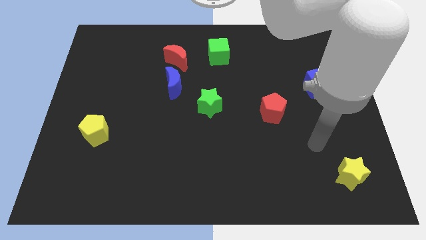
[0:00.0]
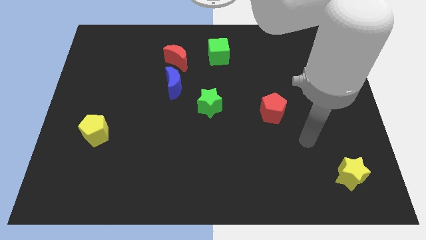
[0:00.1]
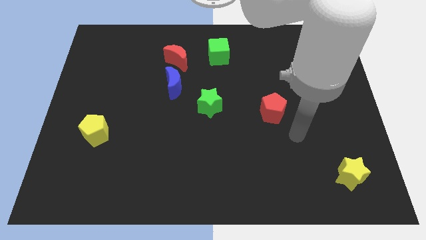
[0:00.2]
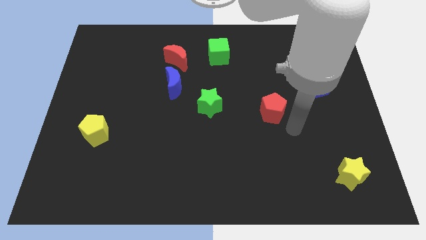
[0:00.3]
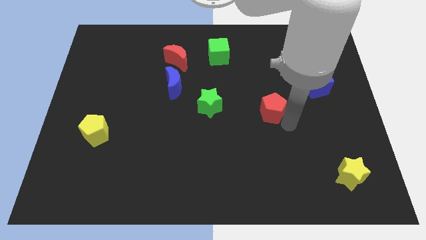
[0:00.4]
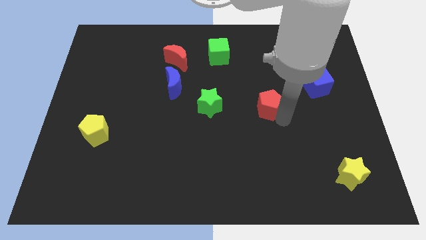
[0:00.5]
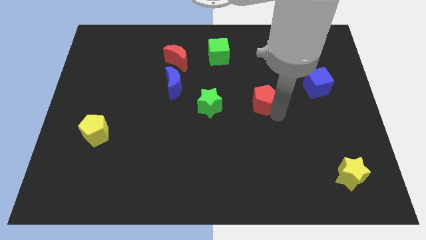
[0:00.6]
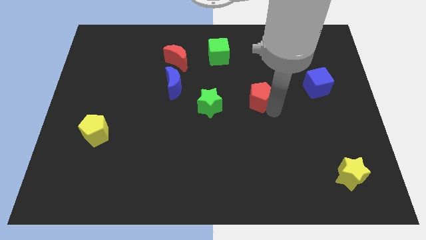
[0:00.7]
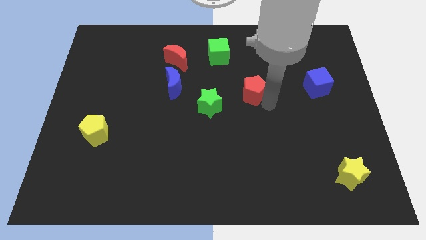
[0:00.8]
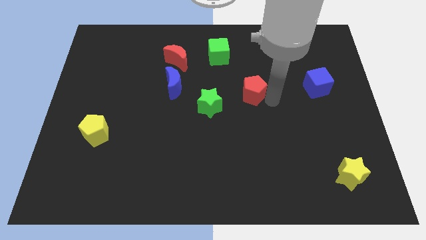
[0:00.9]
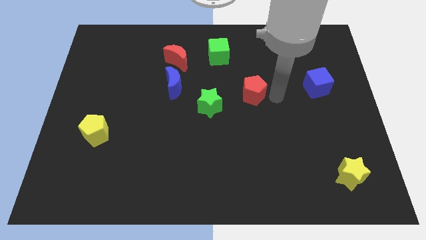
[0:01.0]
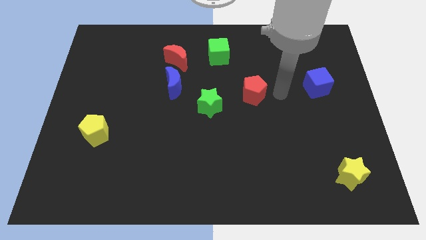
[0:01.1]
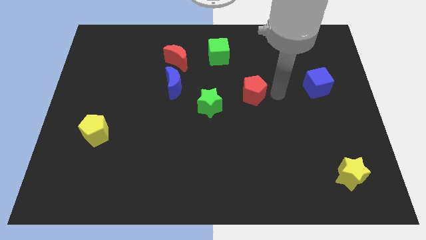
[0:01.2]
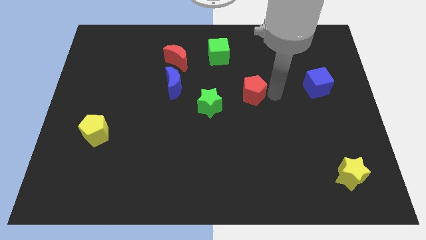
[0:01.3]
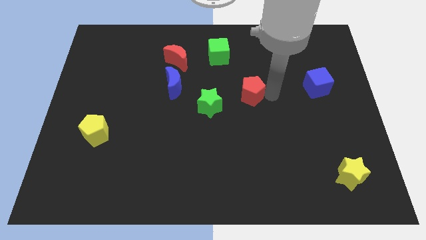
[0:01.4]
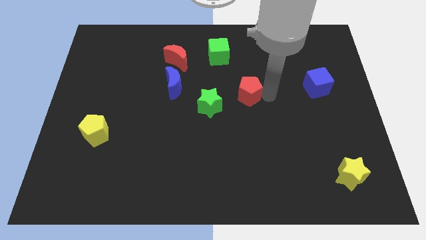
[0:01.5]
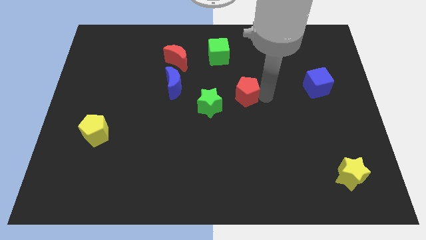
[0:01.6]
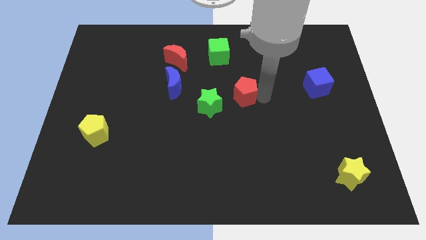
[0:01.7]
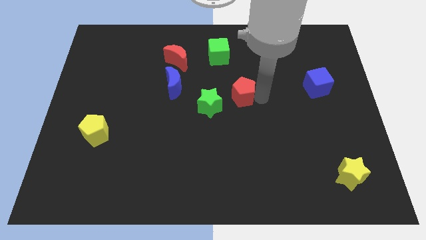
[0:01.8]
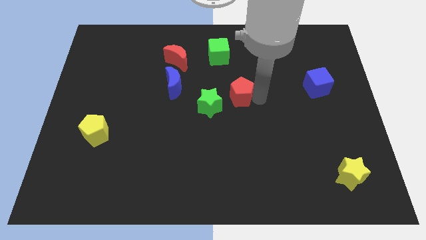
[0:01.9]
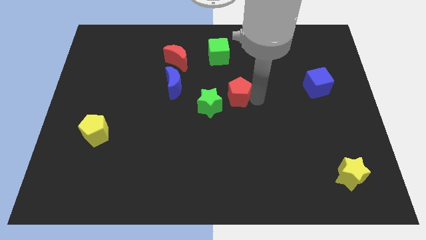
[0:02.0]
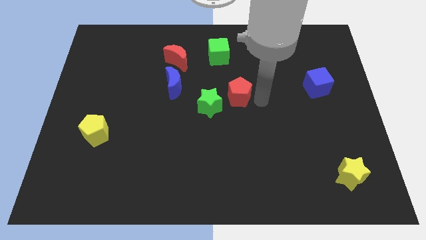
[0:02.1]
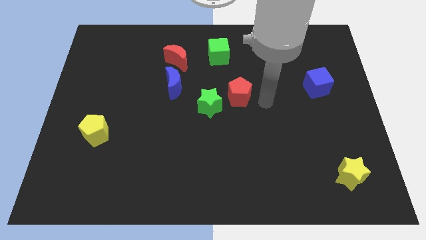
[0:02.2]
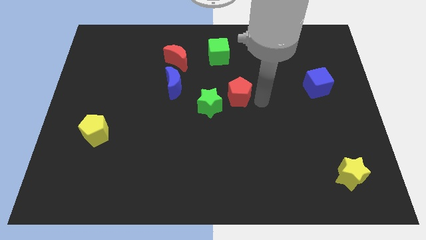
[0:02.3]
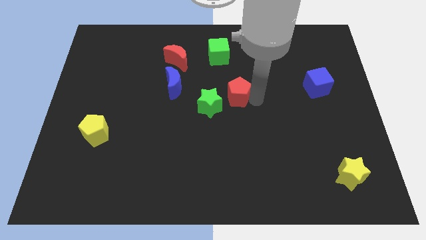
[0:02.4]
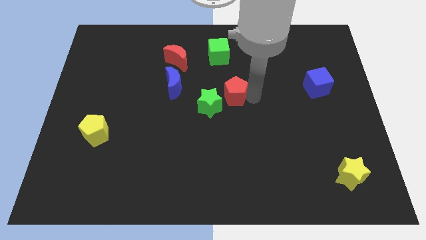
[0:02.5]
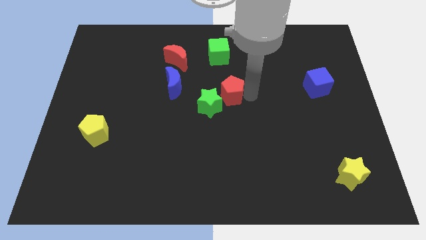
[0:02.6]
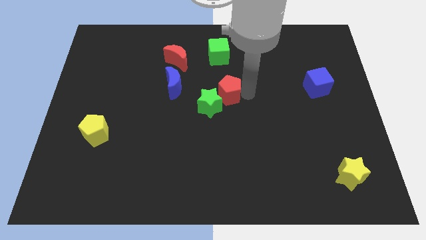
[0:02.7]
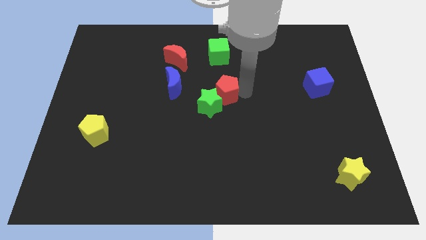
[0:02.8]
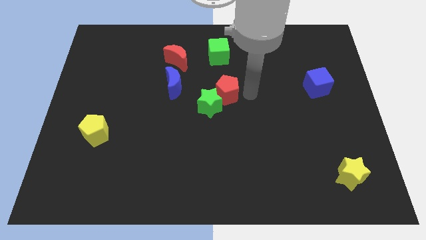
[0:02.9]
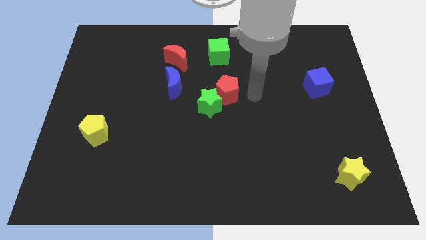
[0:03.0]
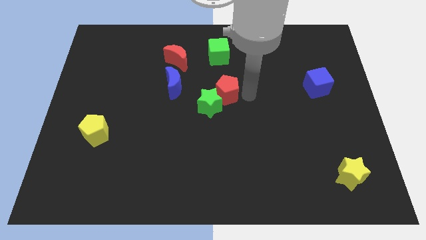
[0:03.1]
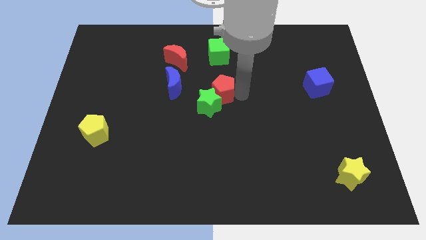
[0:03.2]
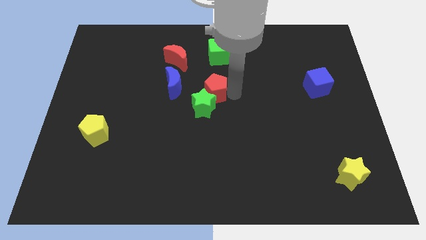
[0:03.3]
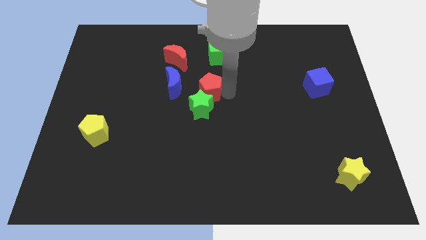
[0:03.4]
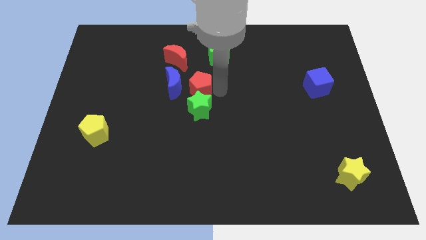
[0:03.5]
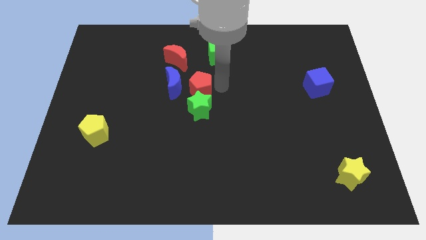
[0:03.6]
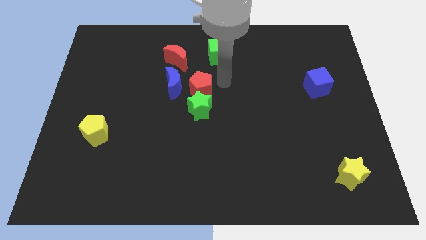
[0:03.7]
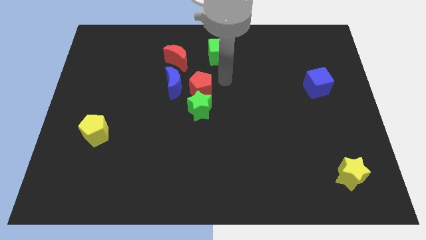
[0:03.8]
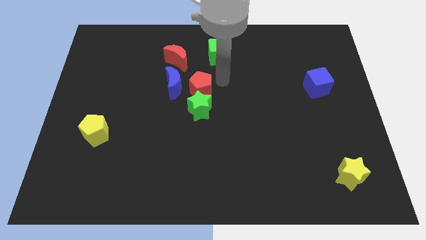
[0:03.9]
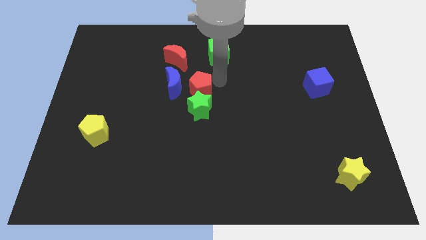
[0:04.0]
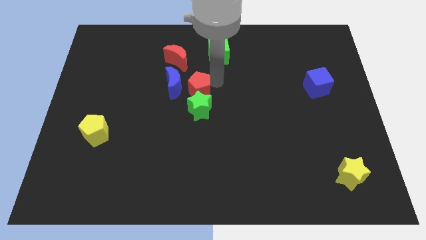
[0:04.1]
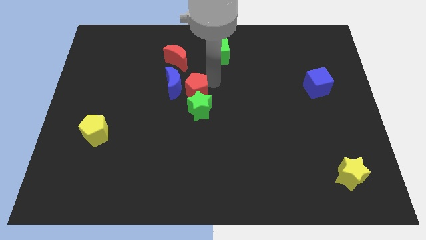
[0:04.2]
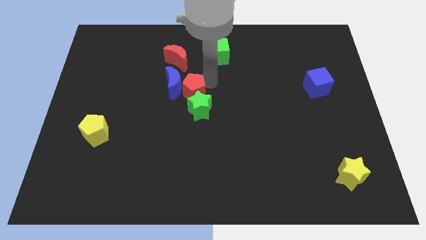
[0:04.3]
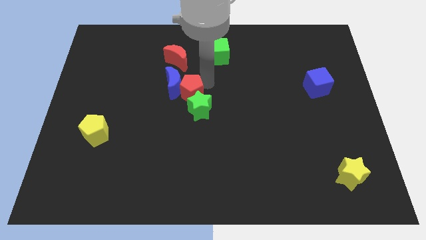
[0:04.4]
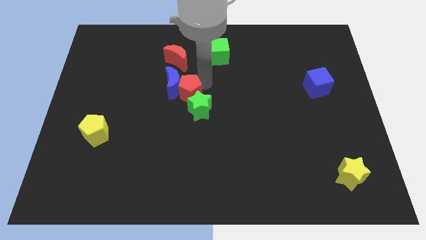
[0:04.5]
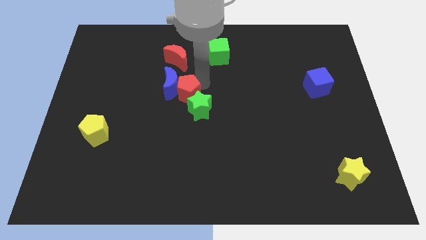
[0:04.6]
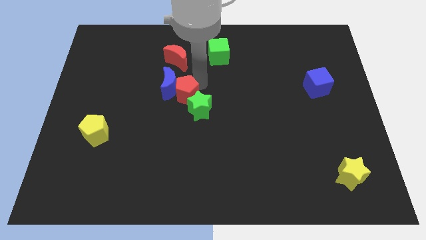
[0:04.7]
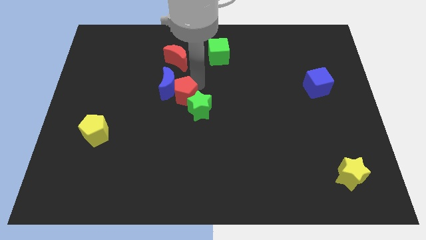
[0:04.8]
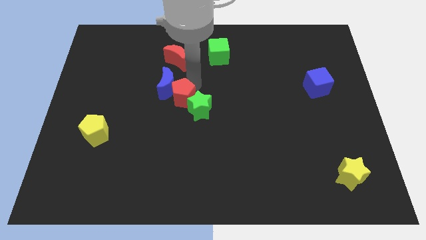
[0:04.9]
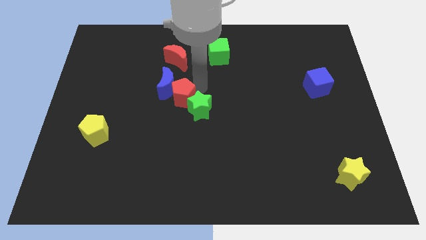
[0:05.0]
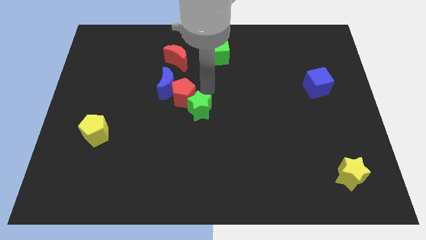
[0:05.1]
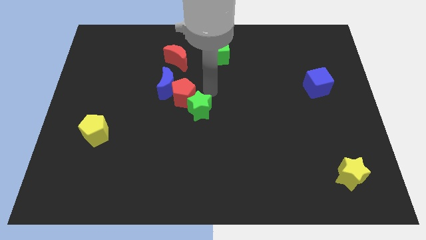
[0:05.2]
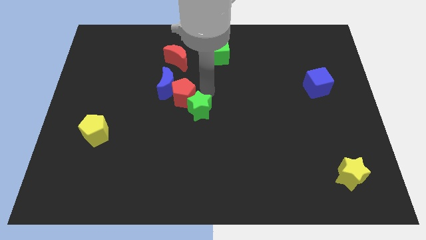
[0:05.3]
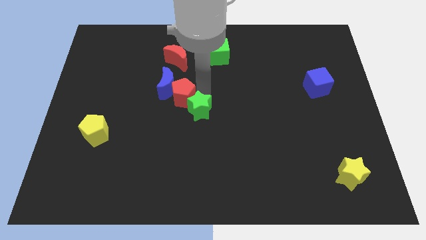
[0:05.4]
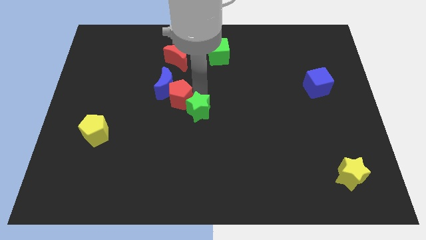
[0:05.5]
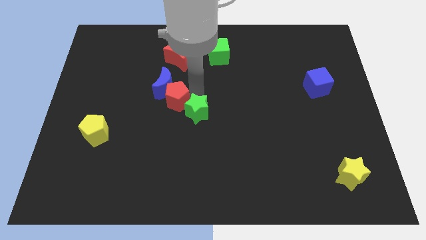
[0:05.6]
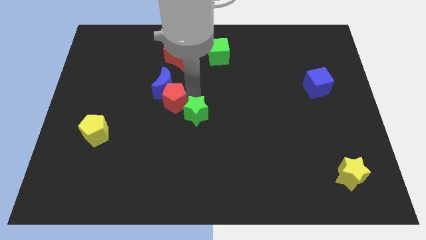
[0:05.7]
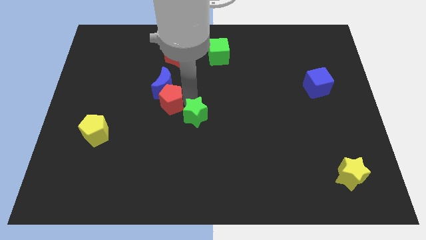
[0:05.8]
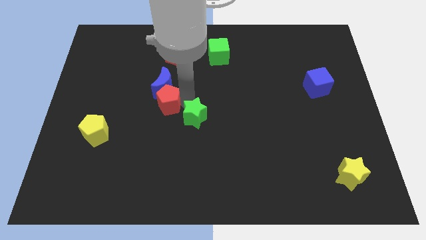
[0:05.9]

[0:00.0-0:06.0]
slide the red pentagon diagonally down and to the left of the blue moon

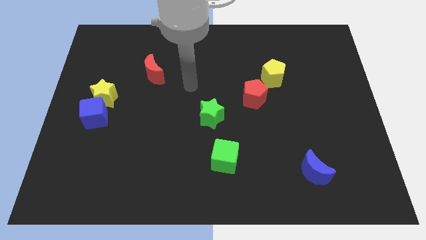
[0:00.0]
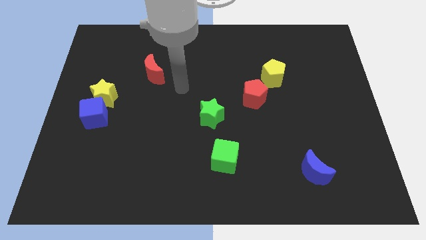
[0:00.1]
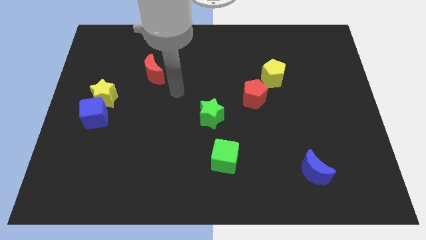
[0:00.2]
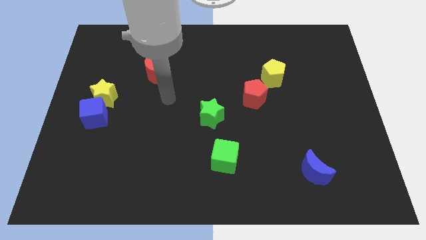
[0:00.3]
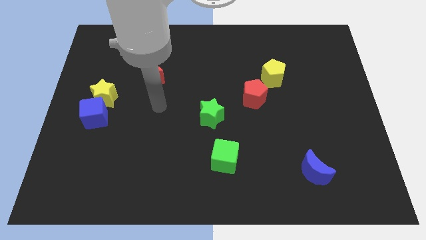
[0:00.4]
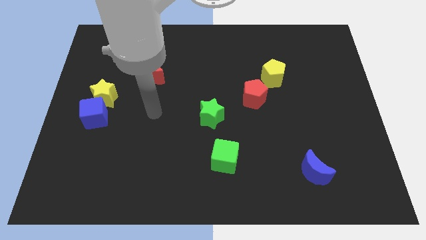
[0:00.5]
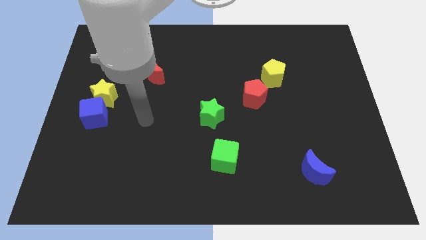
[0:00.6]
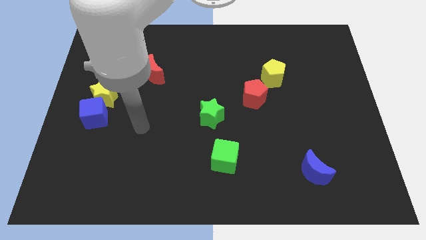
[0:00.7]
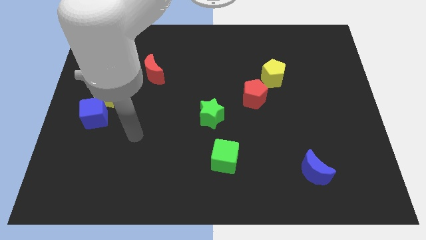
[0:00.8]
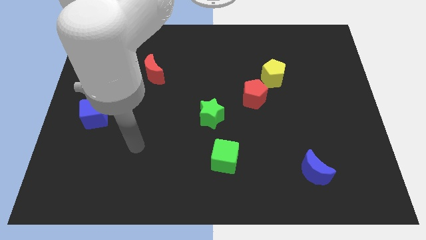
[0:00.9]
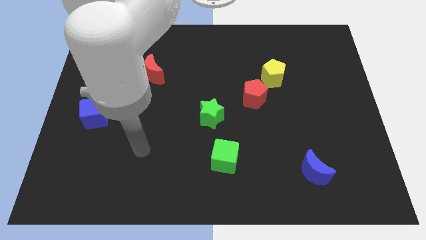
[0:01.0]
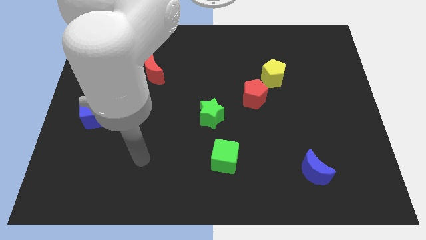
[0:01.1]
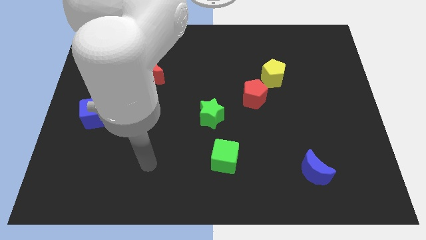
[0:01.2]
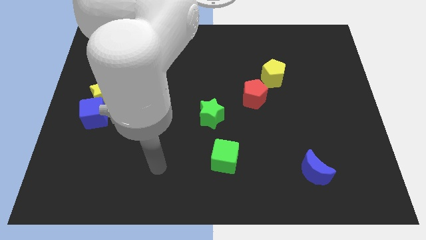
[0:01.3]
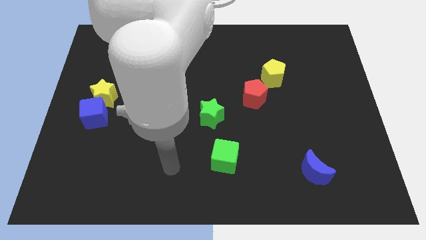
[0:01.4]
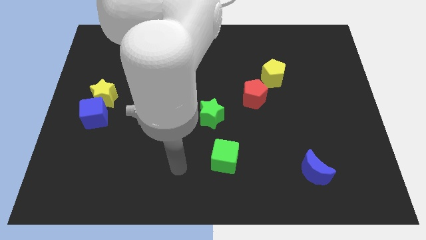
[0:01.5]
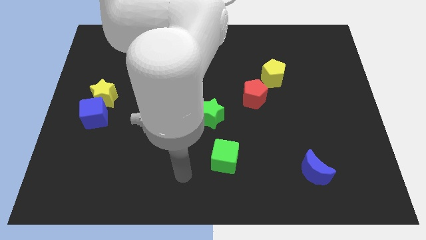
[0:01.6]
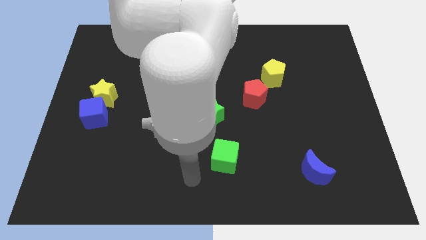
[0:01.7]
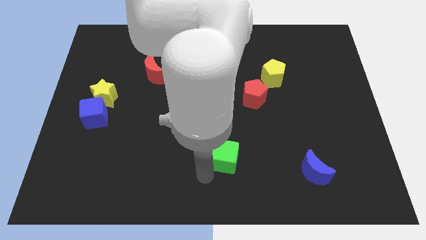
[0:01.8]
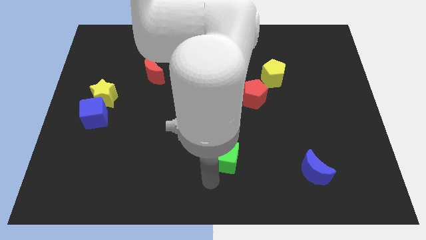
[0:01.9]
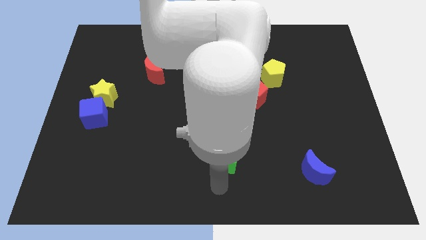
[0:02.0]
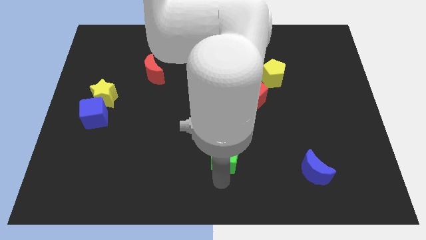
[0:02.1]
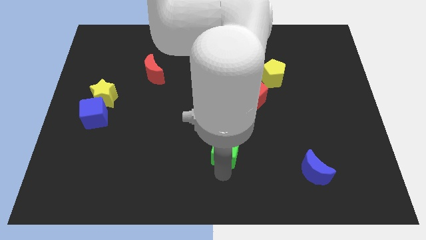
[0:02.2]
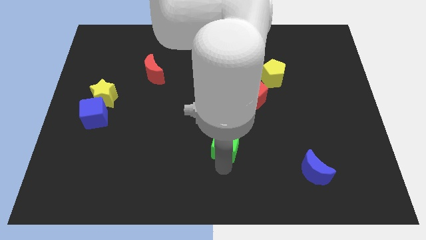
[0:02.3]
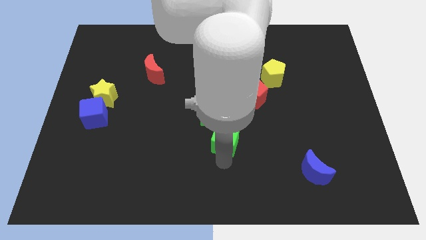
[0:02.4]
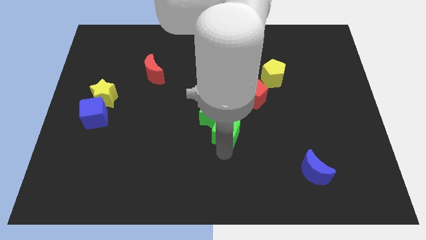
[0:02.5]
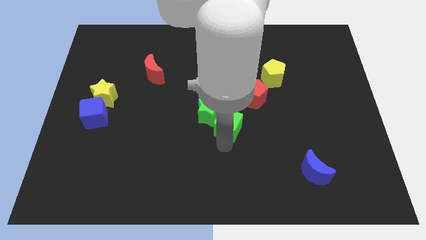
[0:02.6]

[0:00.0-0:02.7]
put the green cube diagonally down and to the left of the red pentagon
